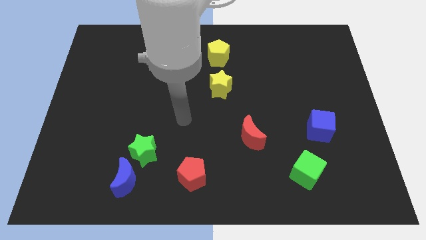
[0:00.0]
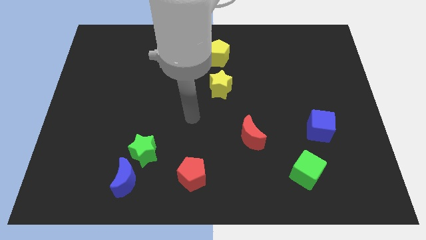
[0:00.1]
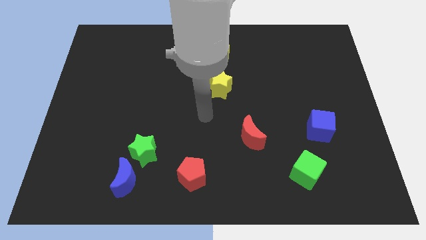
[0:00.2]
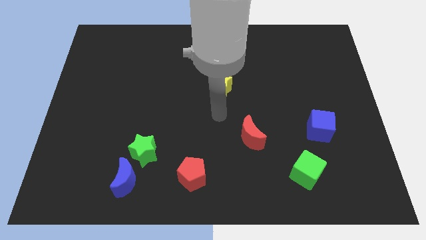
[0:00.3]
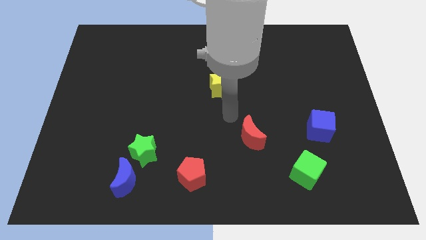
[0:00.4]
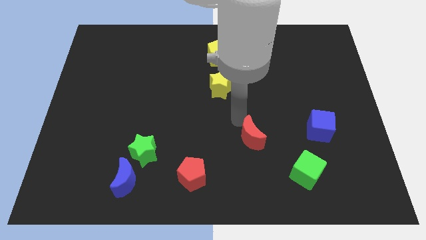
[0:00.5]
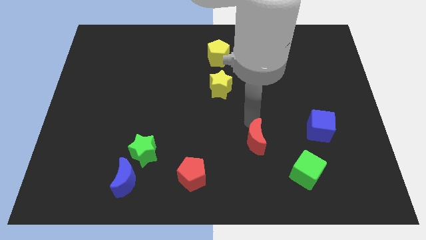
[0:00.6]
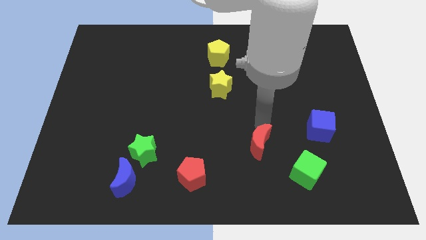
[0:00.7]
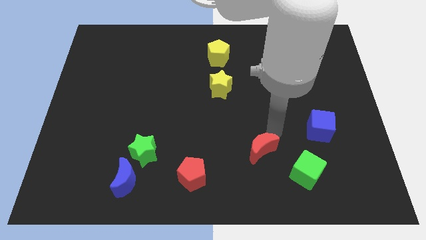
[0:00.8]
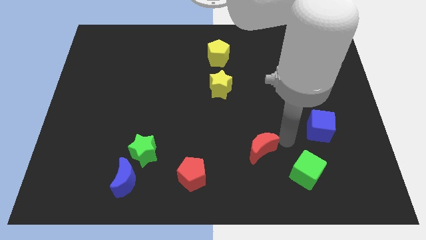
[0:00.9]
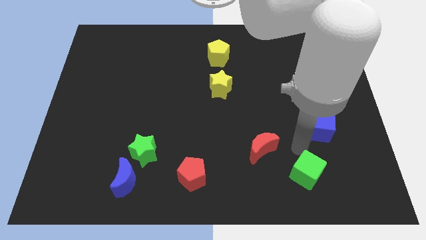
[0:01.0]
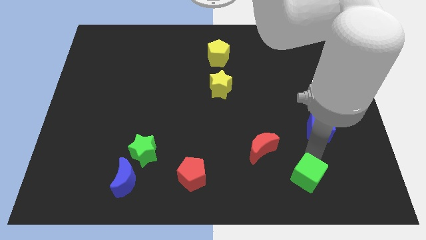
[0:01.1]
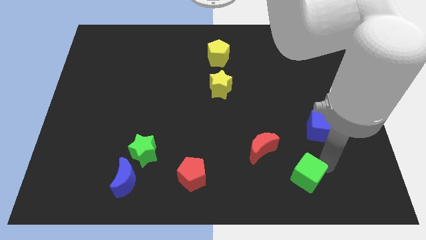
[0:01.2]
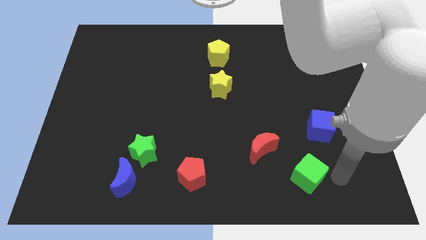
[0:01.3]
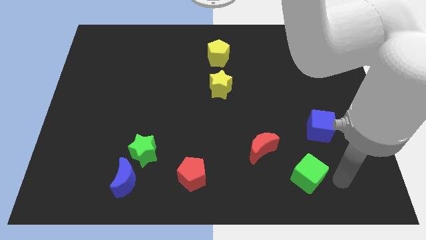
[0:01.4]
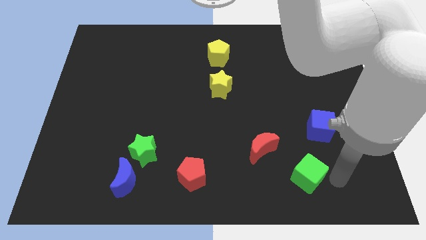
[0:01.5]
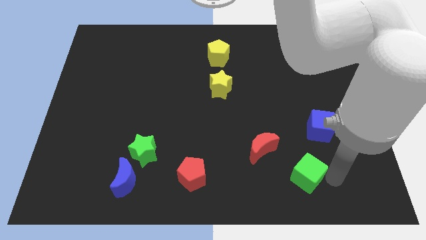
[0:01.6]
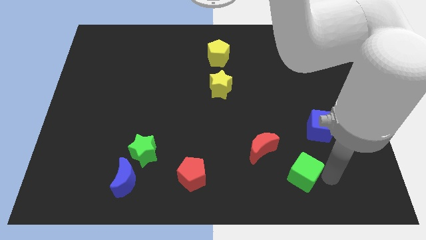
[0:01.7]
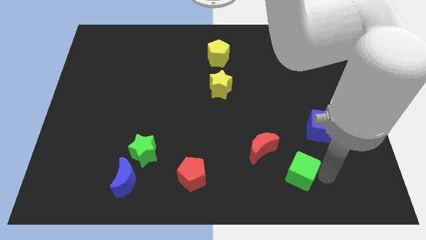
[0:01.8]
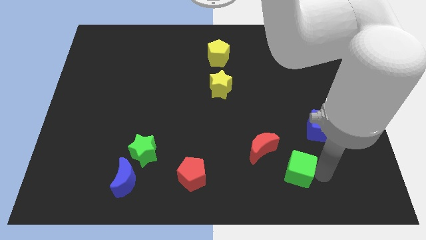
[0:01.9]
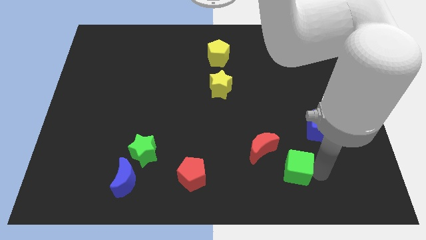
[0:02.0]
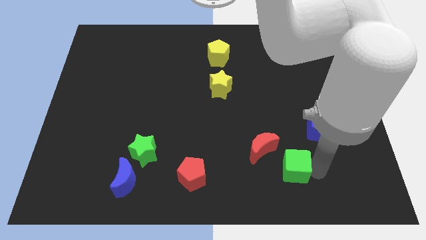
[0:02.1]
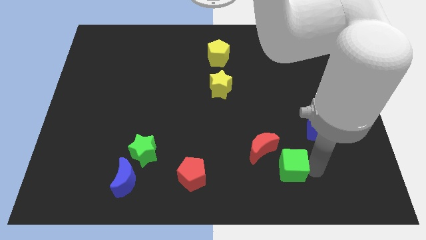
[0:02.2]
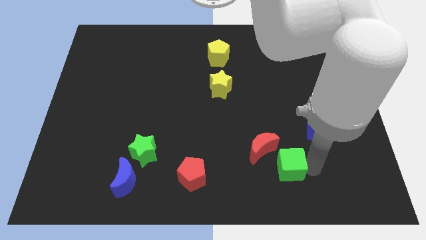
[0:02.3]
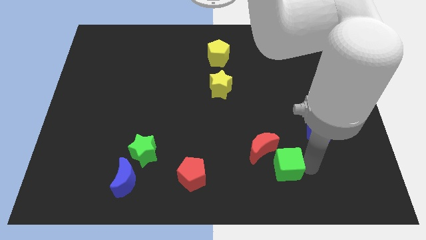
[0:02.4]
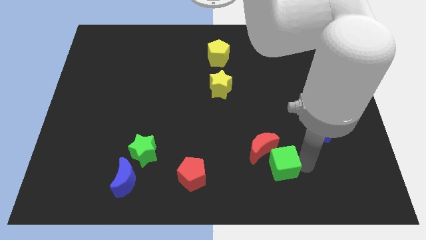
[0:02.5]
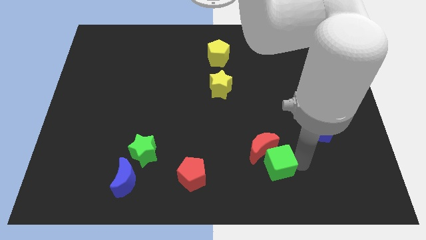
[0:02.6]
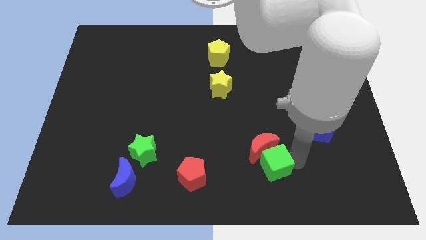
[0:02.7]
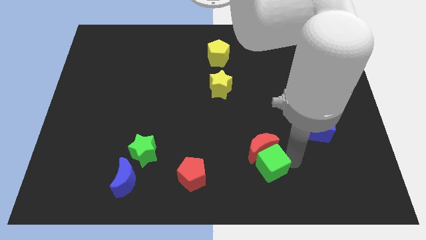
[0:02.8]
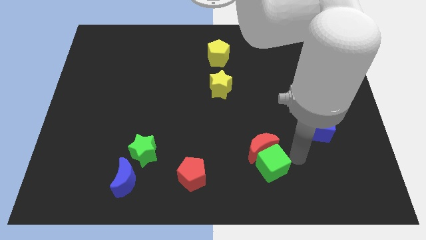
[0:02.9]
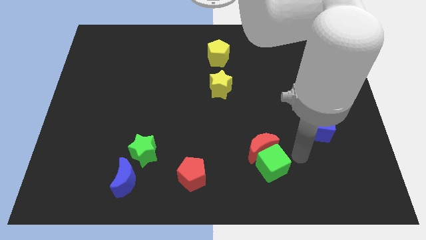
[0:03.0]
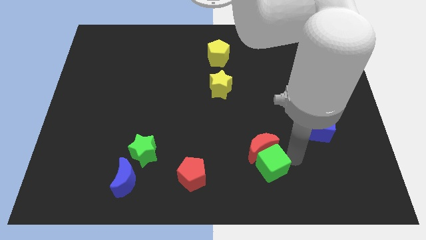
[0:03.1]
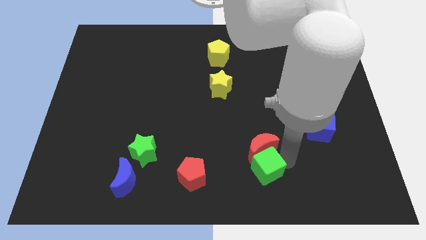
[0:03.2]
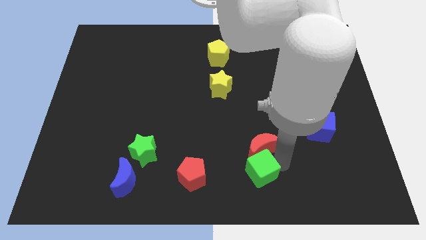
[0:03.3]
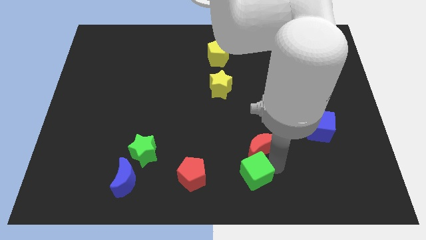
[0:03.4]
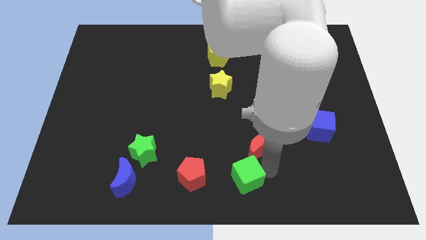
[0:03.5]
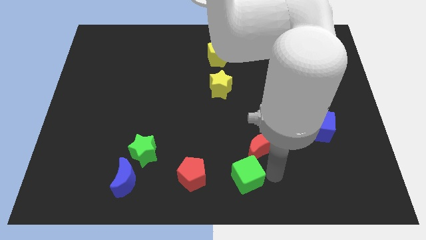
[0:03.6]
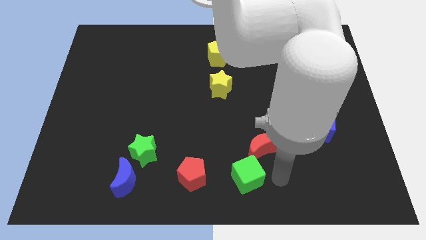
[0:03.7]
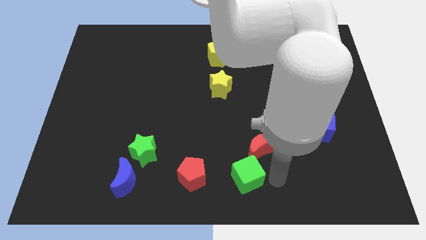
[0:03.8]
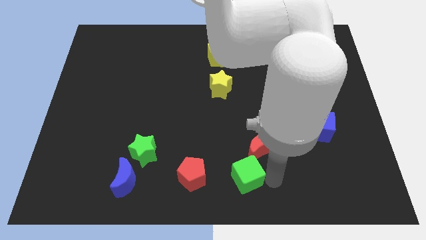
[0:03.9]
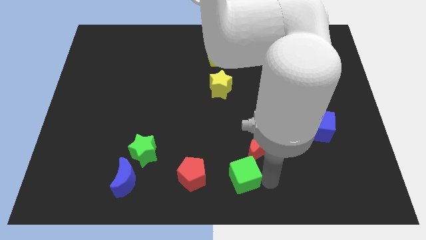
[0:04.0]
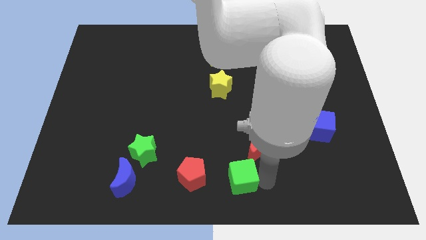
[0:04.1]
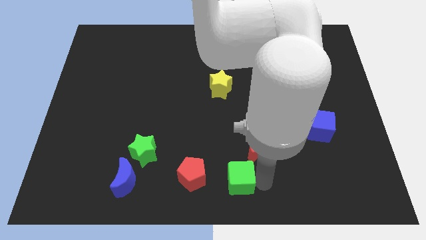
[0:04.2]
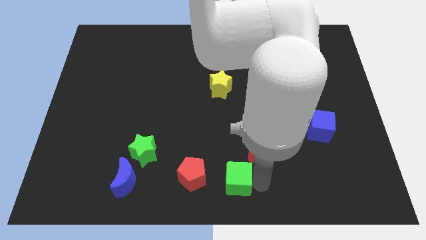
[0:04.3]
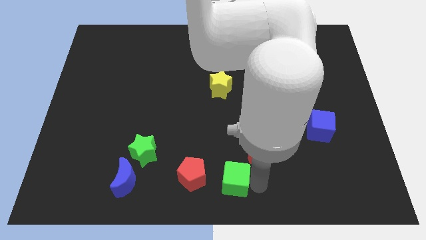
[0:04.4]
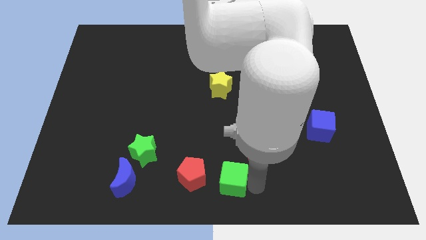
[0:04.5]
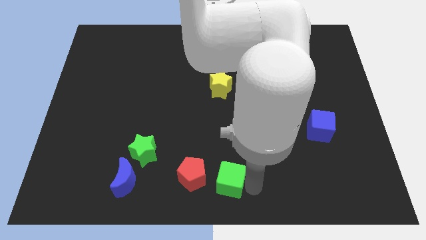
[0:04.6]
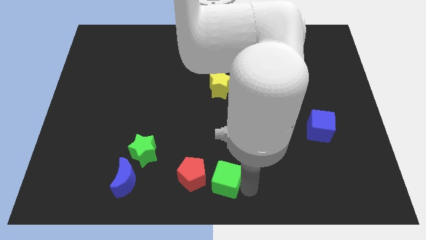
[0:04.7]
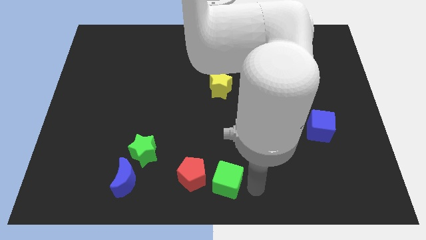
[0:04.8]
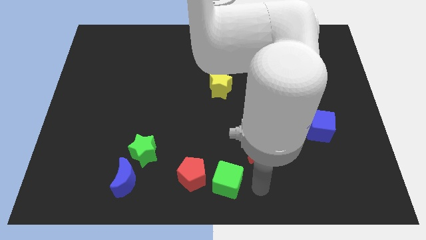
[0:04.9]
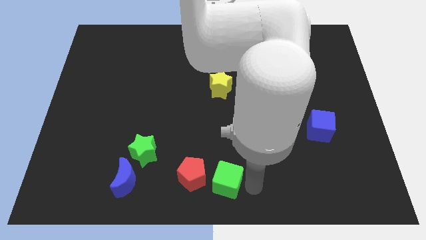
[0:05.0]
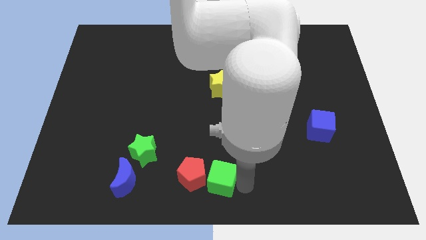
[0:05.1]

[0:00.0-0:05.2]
move the green cube to the red pentagon

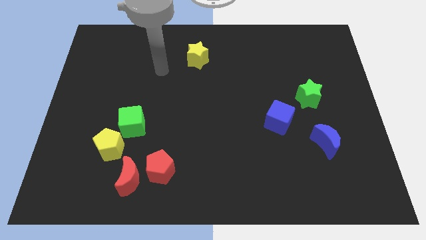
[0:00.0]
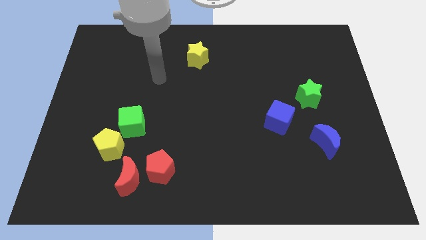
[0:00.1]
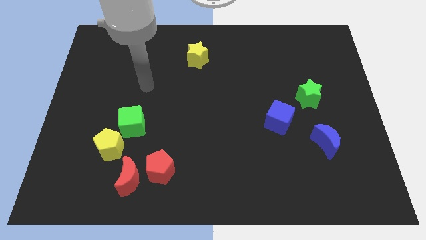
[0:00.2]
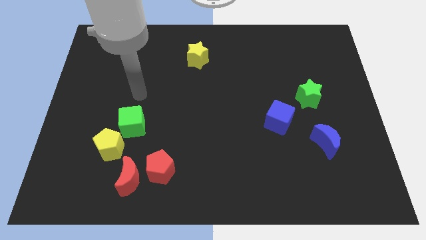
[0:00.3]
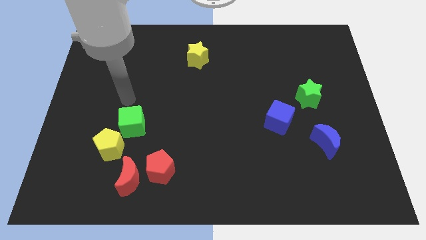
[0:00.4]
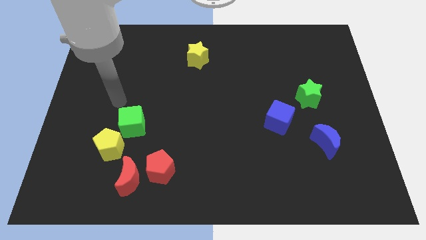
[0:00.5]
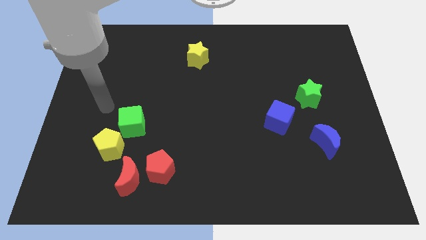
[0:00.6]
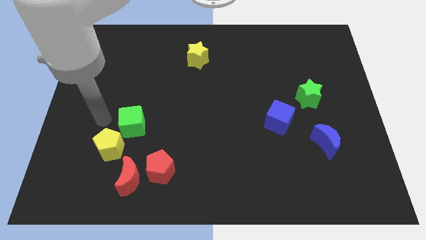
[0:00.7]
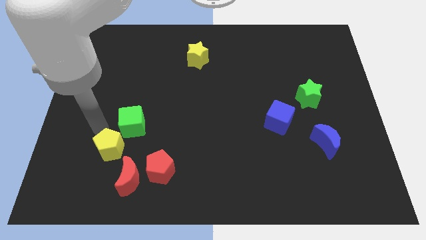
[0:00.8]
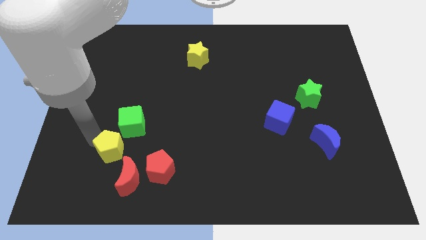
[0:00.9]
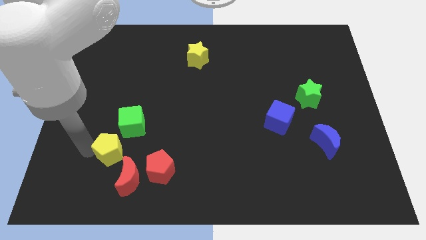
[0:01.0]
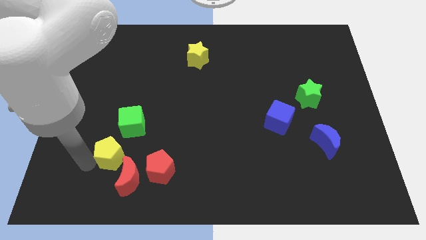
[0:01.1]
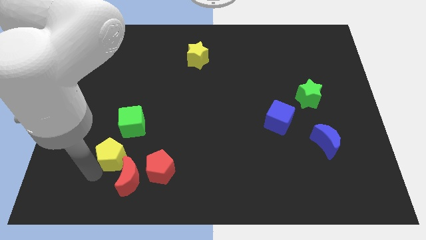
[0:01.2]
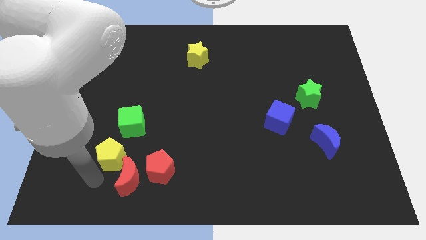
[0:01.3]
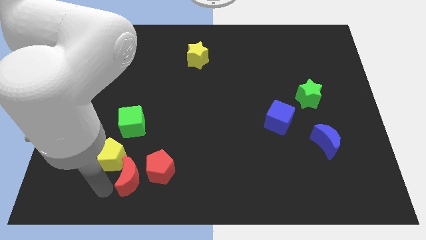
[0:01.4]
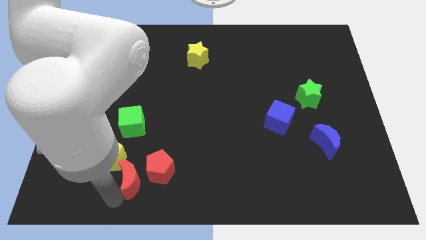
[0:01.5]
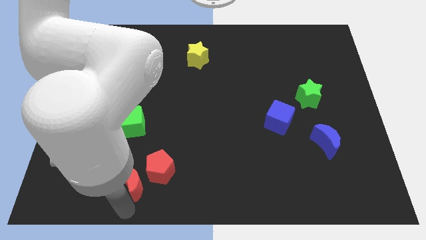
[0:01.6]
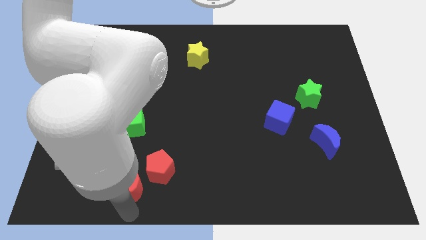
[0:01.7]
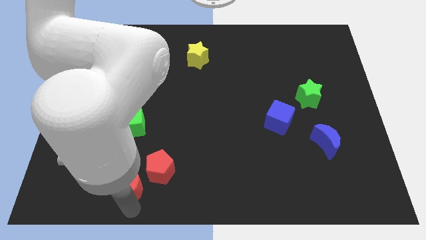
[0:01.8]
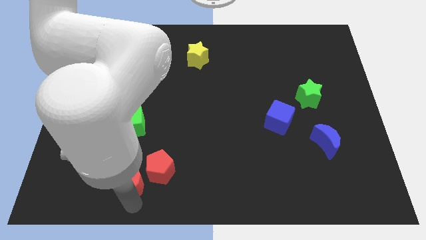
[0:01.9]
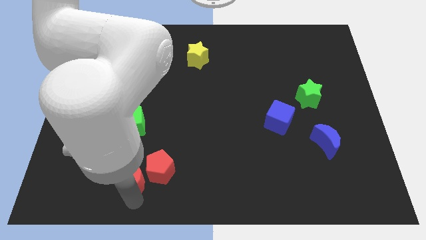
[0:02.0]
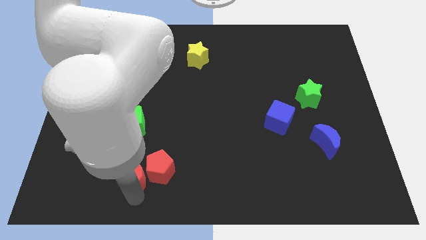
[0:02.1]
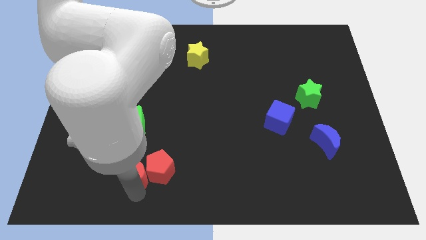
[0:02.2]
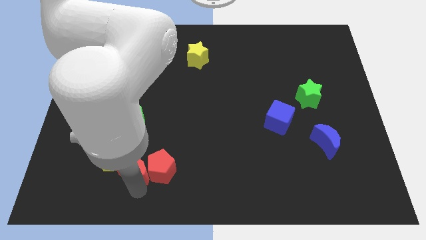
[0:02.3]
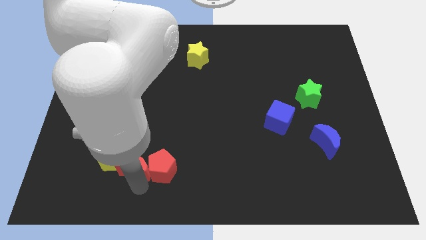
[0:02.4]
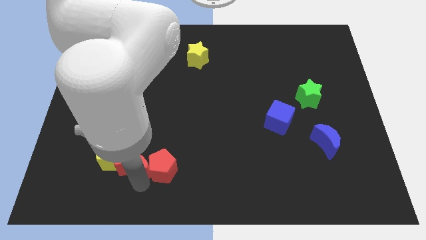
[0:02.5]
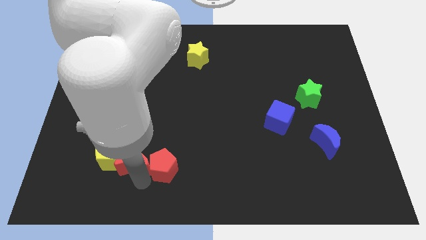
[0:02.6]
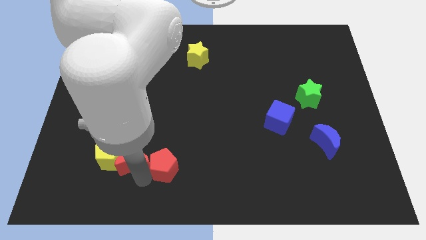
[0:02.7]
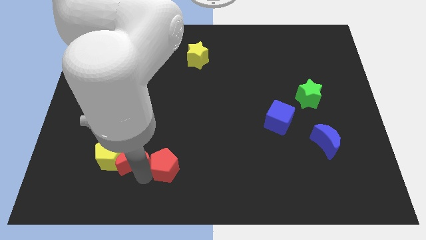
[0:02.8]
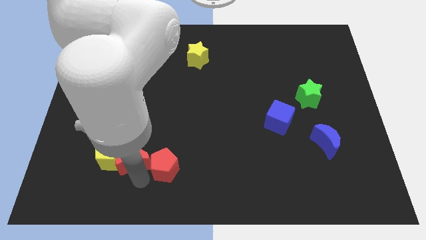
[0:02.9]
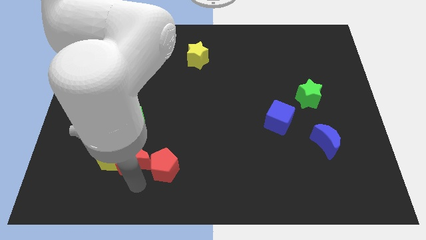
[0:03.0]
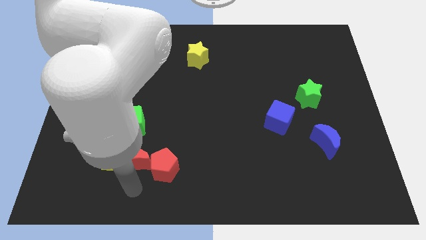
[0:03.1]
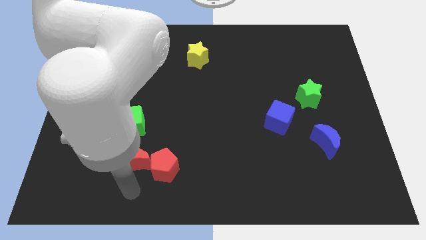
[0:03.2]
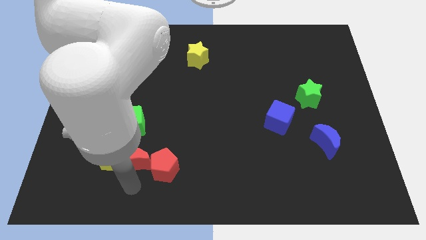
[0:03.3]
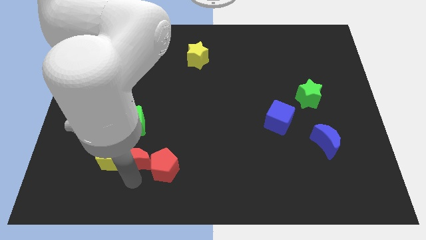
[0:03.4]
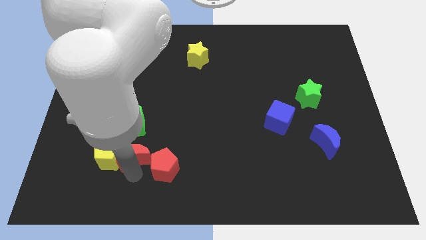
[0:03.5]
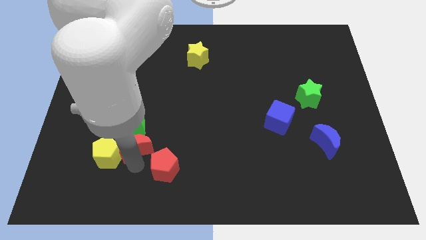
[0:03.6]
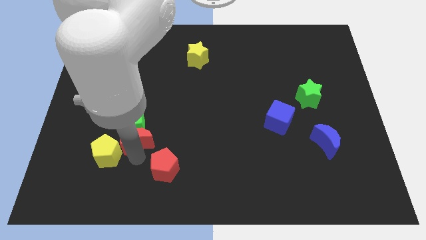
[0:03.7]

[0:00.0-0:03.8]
slide the red moon next to the green cube
